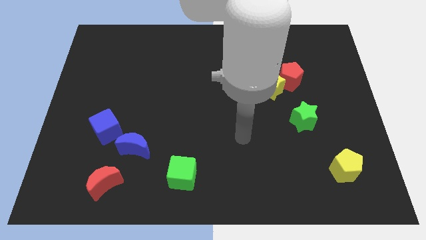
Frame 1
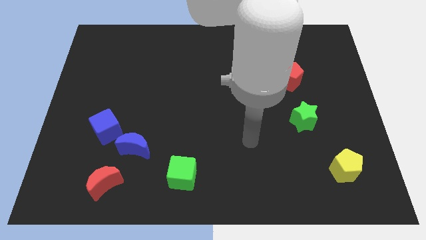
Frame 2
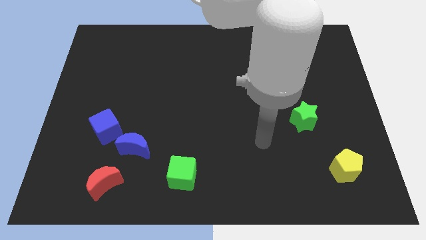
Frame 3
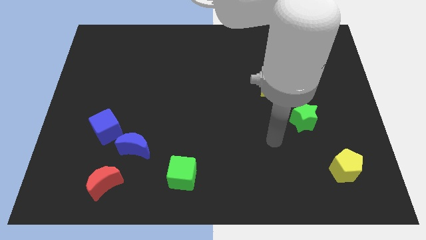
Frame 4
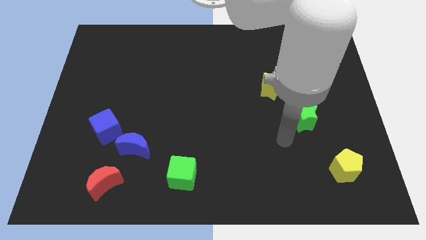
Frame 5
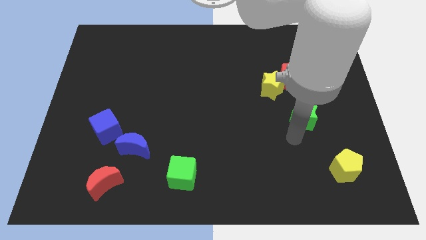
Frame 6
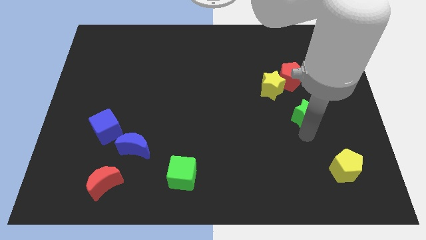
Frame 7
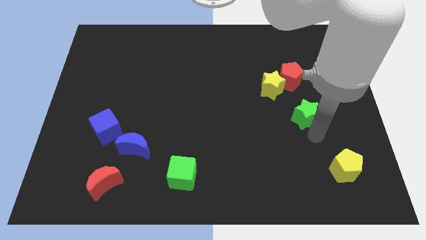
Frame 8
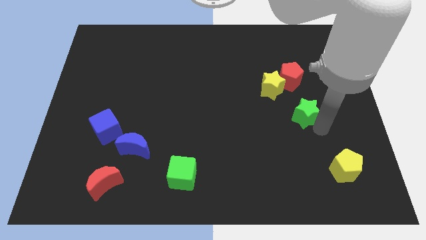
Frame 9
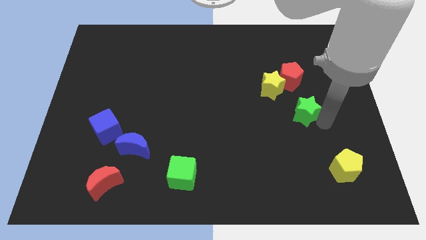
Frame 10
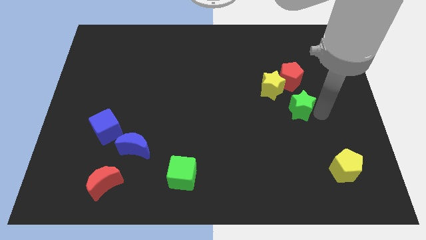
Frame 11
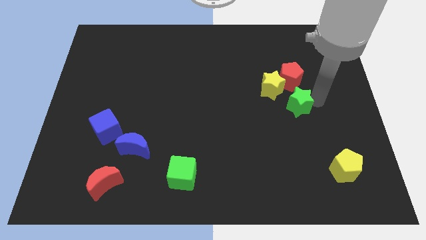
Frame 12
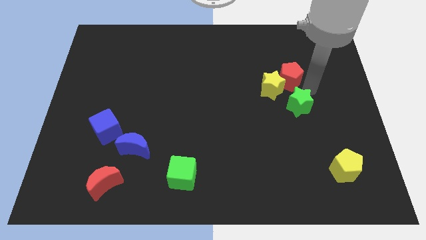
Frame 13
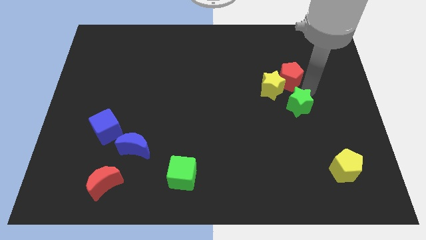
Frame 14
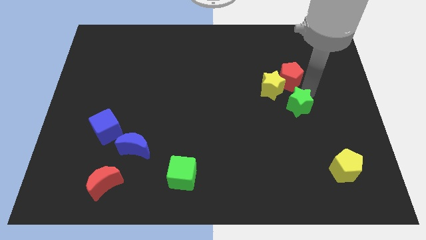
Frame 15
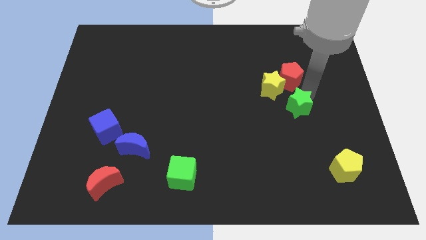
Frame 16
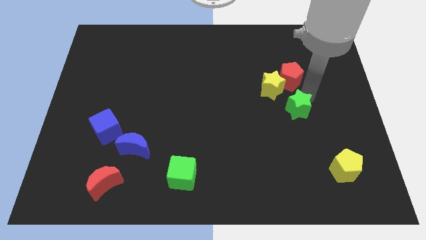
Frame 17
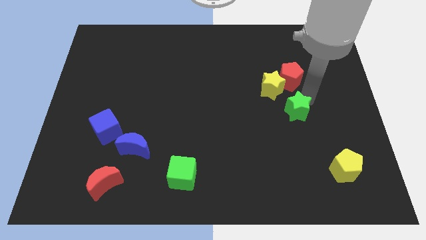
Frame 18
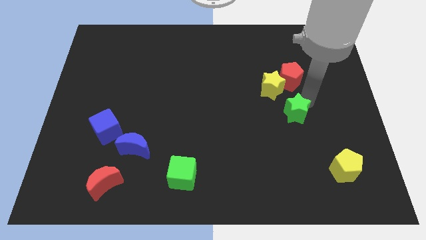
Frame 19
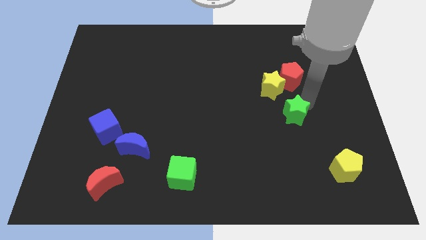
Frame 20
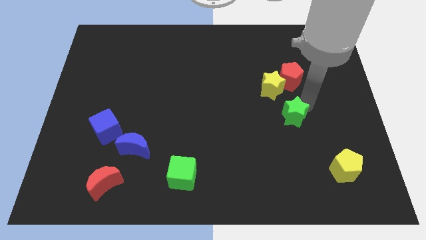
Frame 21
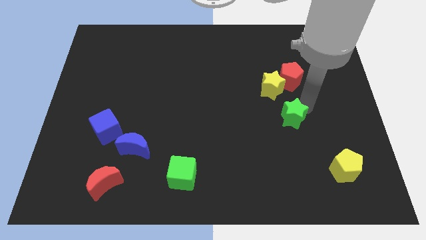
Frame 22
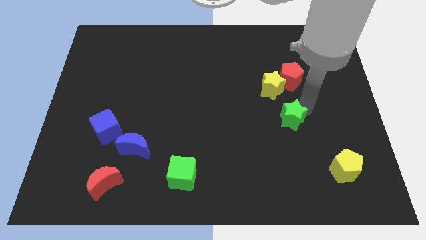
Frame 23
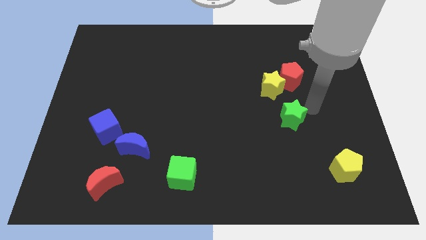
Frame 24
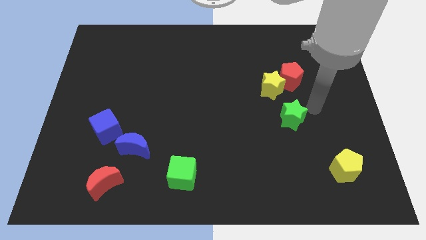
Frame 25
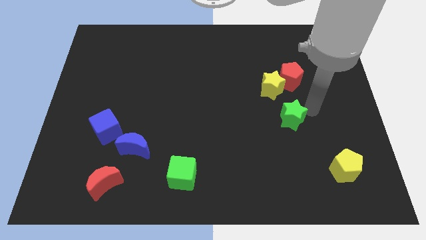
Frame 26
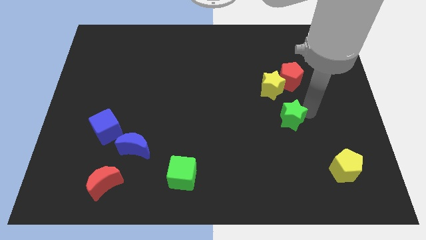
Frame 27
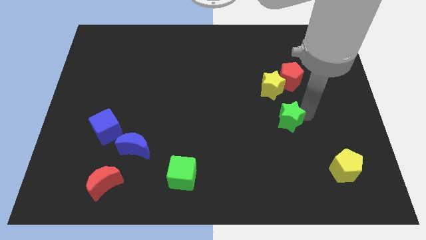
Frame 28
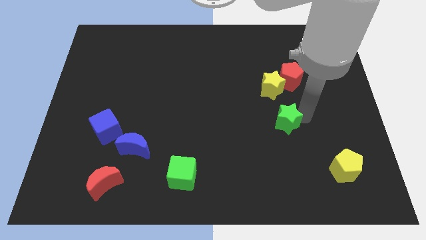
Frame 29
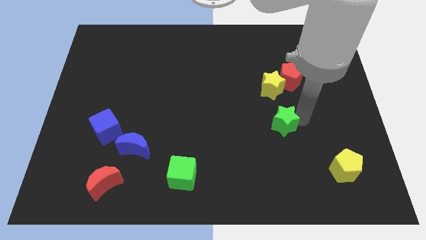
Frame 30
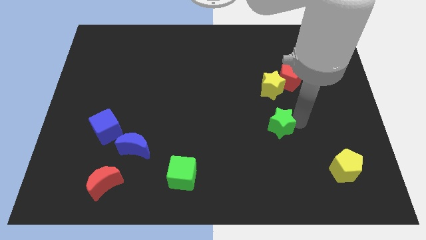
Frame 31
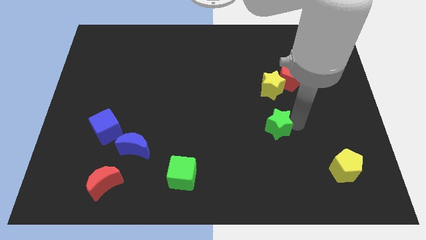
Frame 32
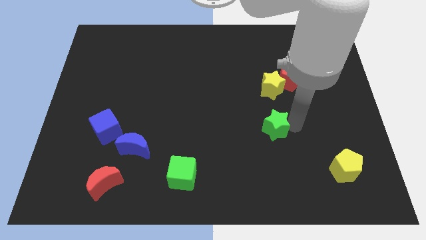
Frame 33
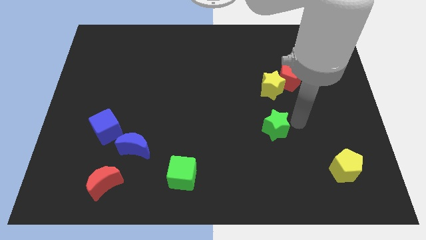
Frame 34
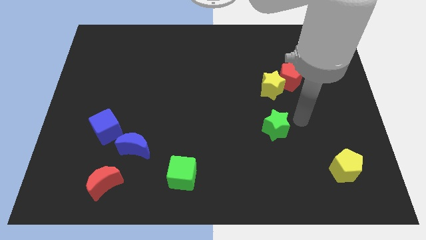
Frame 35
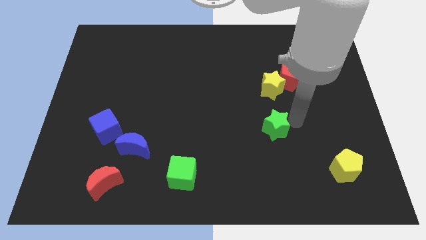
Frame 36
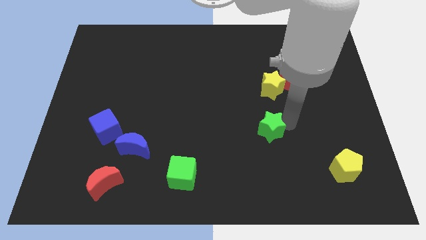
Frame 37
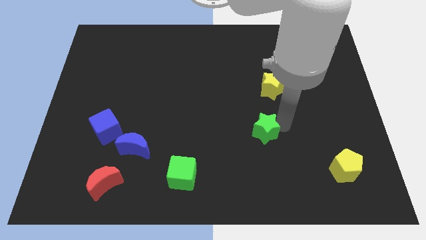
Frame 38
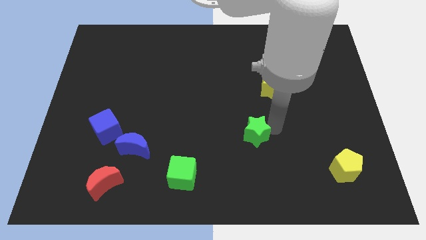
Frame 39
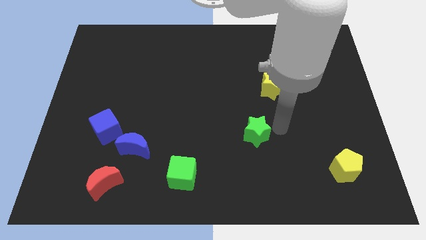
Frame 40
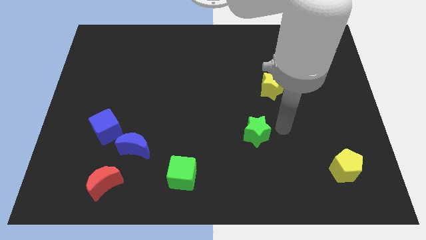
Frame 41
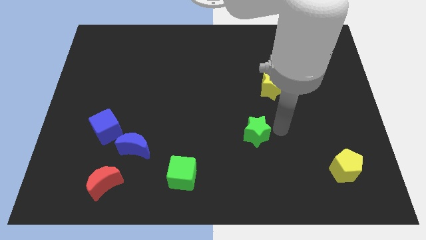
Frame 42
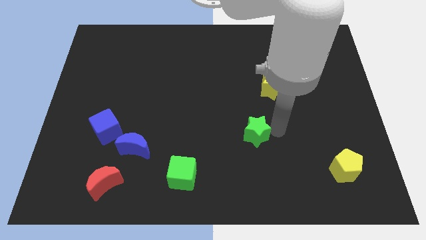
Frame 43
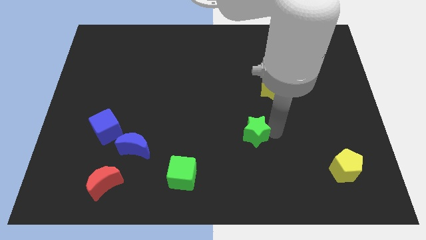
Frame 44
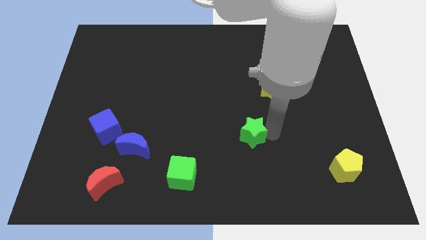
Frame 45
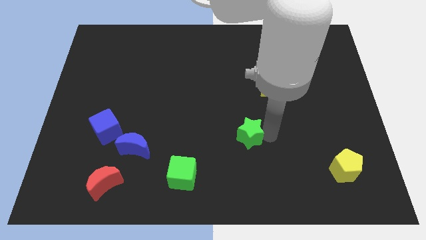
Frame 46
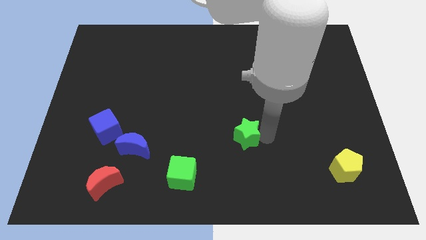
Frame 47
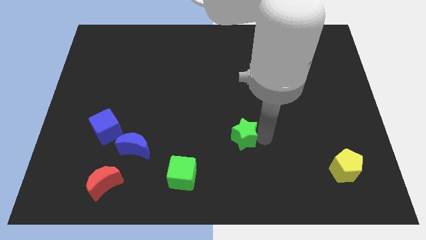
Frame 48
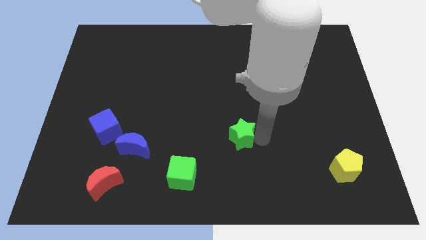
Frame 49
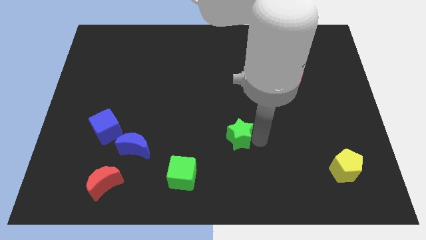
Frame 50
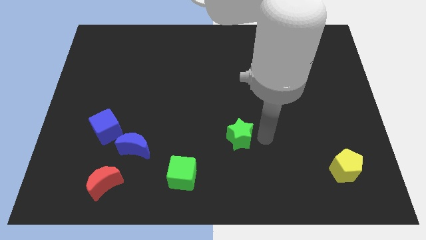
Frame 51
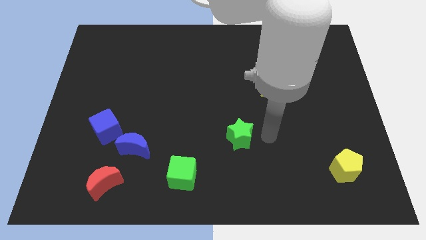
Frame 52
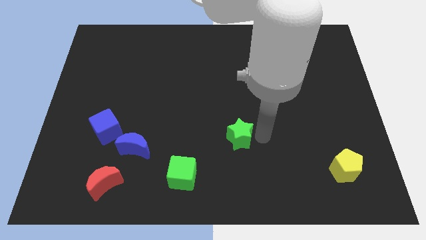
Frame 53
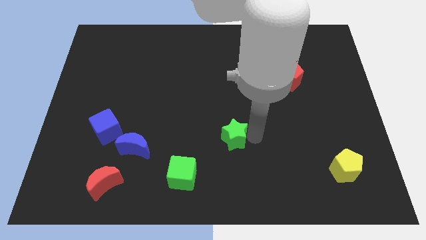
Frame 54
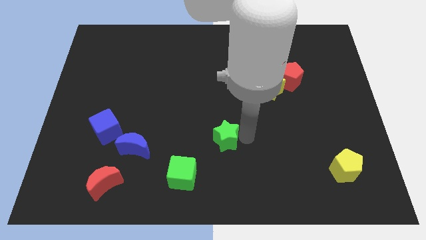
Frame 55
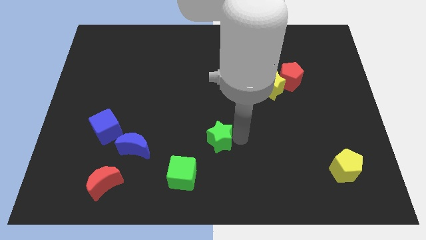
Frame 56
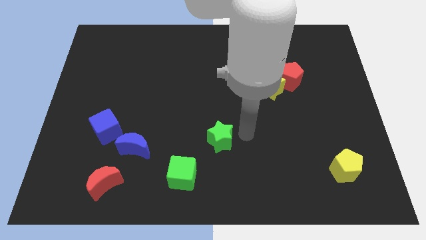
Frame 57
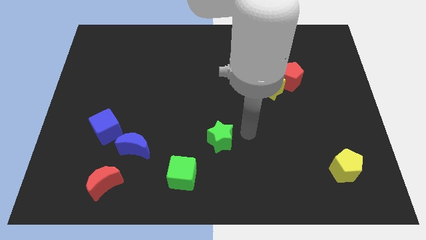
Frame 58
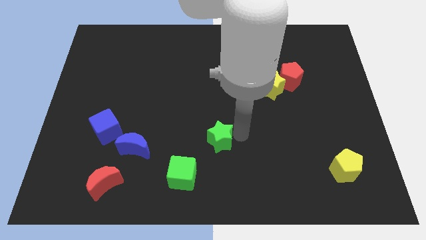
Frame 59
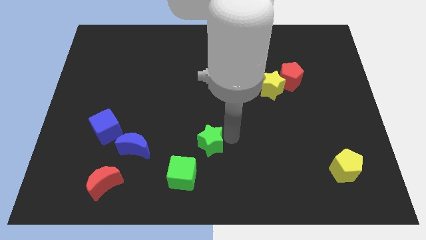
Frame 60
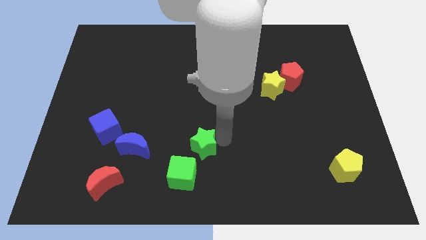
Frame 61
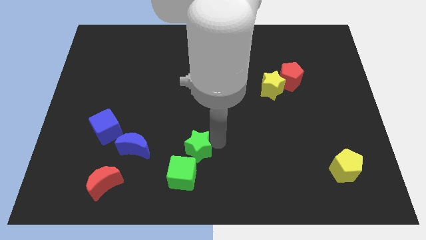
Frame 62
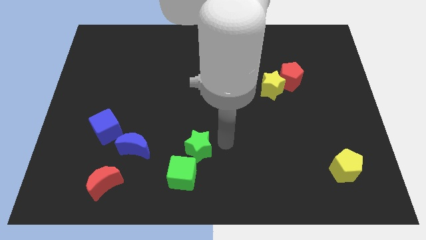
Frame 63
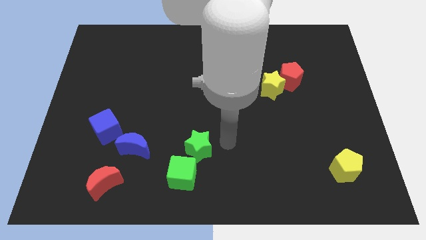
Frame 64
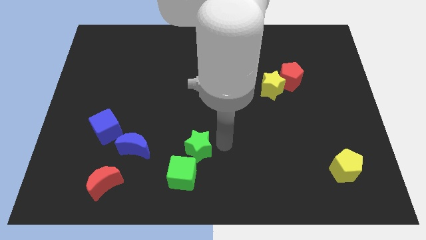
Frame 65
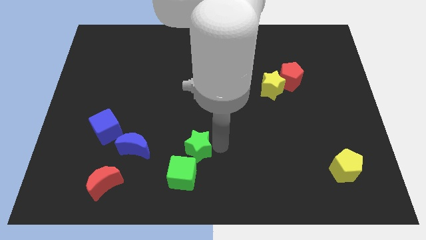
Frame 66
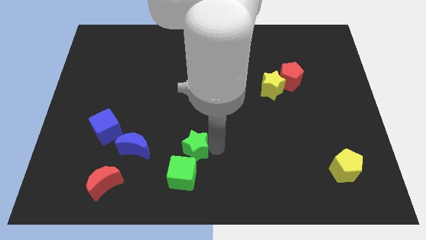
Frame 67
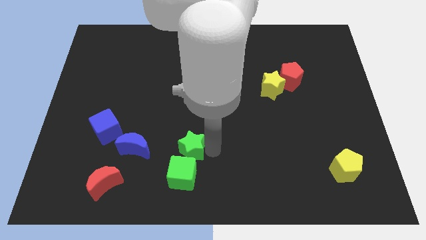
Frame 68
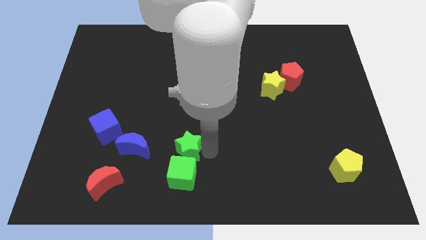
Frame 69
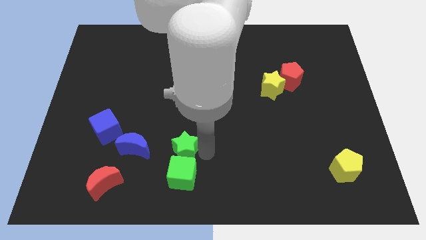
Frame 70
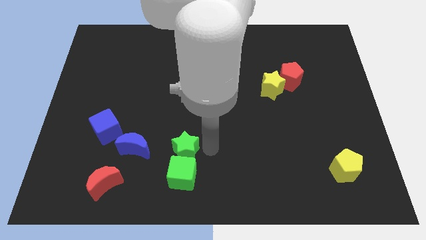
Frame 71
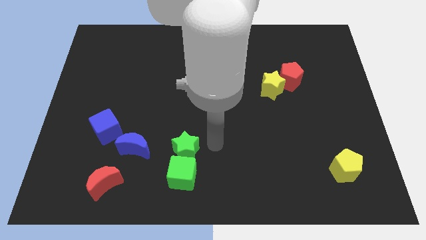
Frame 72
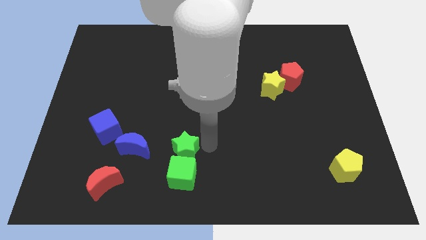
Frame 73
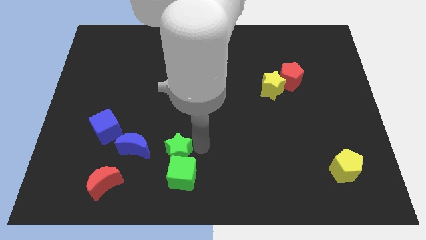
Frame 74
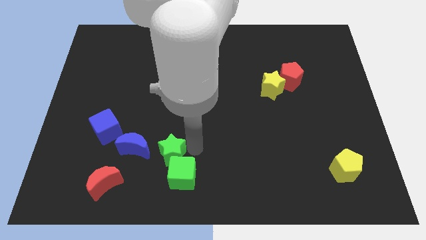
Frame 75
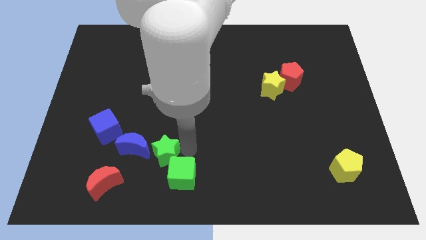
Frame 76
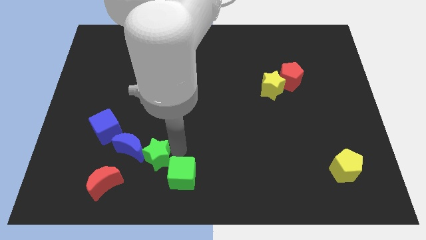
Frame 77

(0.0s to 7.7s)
put the green star left of the green cube
